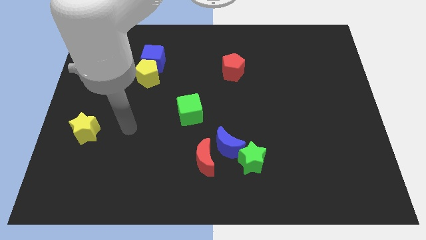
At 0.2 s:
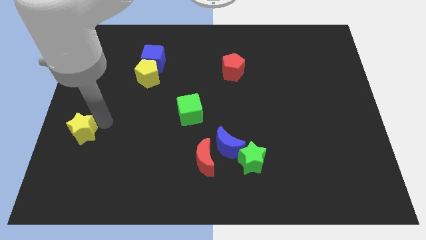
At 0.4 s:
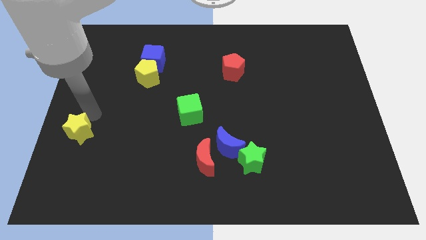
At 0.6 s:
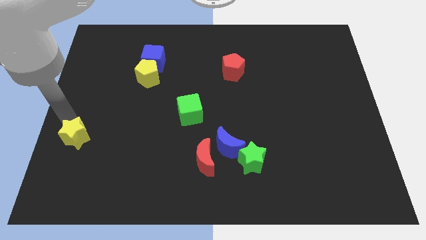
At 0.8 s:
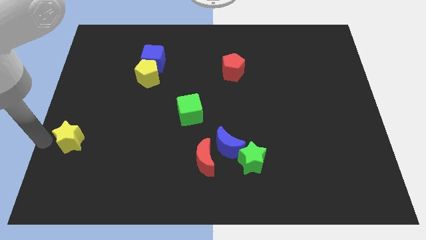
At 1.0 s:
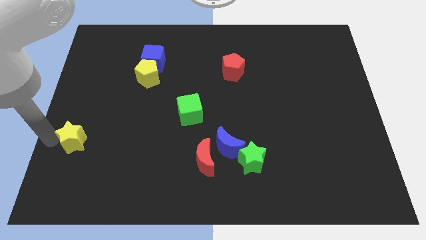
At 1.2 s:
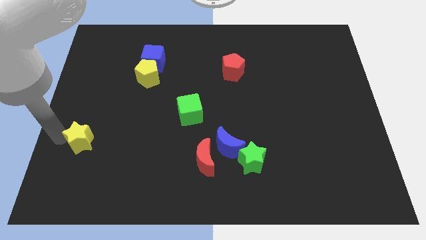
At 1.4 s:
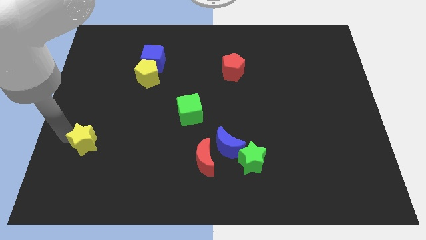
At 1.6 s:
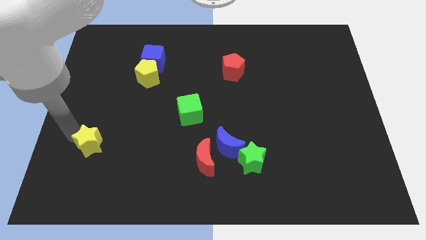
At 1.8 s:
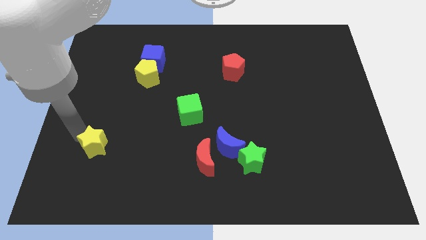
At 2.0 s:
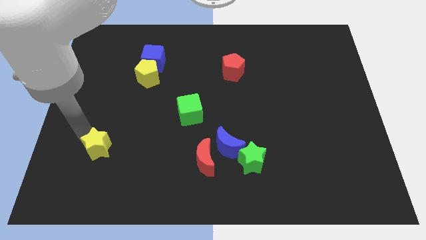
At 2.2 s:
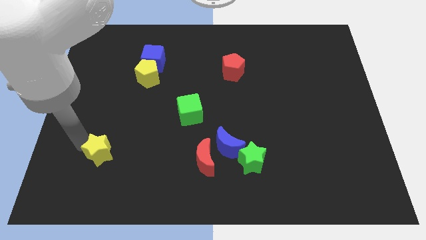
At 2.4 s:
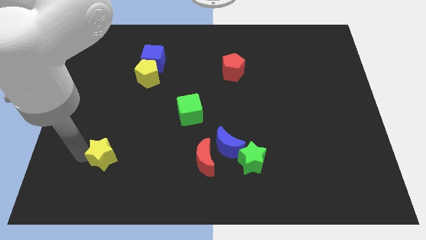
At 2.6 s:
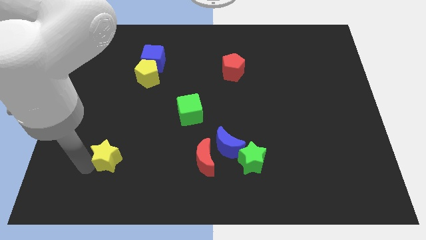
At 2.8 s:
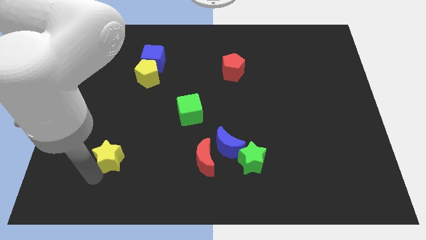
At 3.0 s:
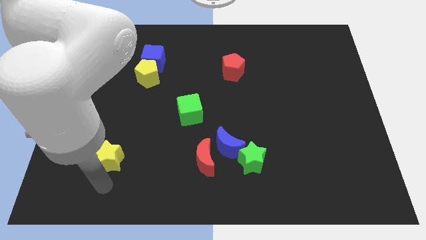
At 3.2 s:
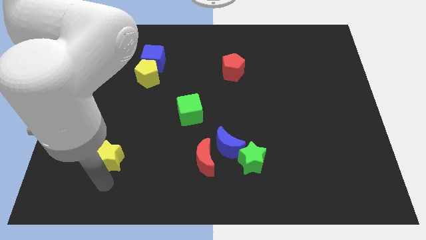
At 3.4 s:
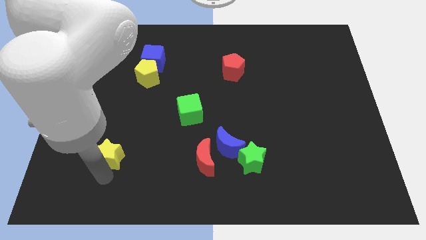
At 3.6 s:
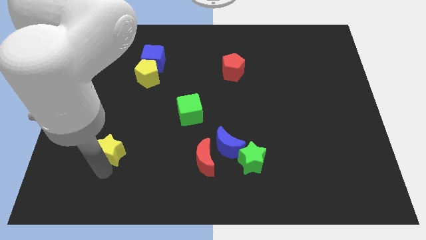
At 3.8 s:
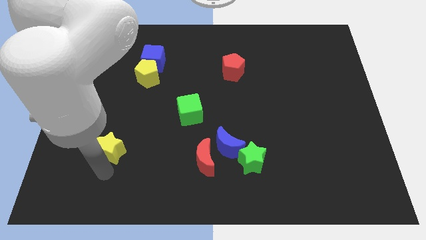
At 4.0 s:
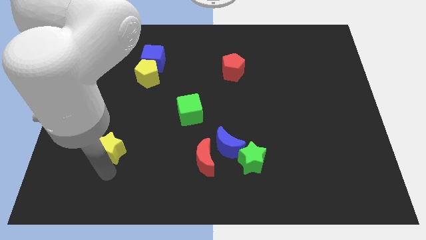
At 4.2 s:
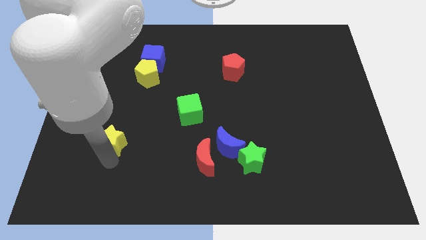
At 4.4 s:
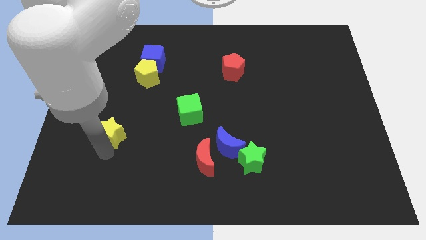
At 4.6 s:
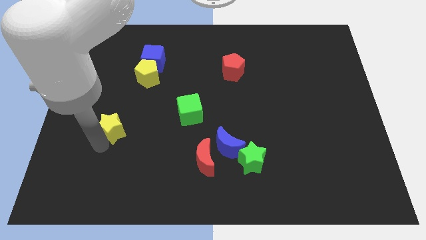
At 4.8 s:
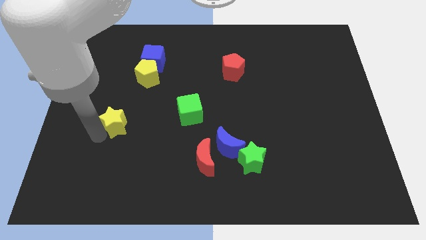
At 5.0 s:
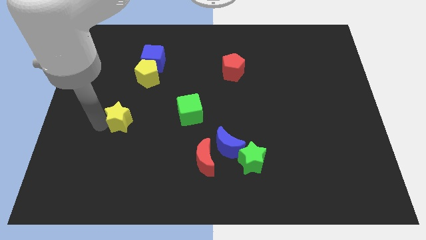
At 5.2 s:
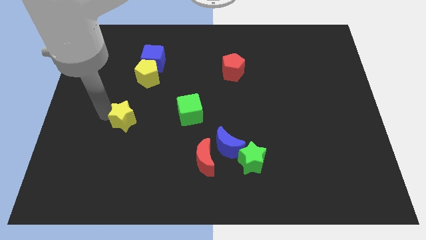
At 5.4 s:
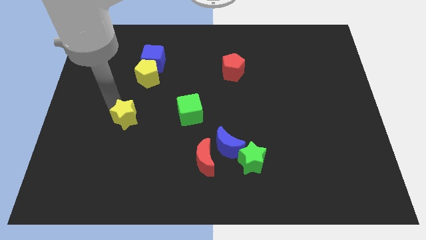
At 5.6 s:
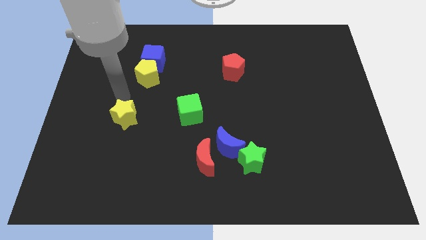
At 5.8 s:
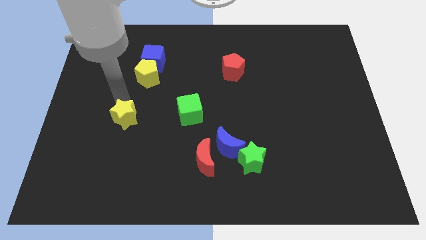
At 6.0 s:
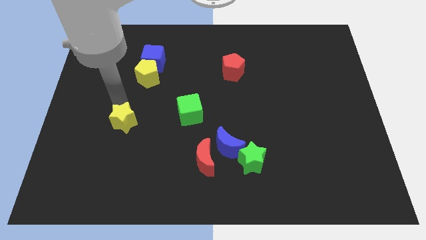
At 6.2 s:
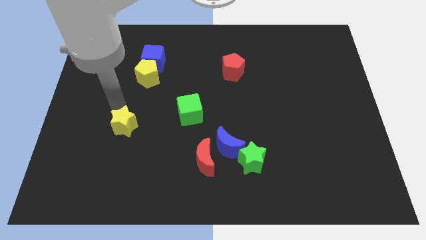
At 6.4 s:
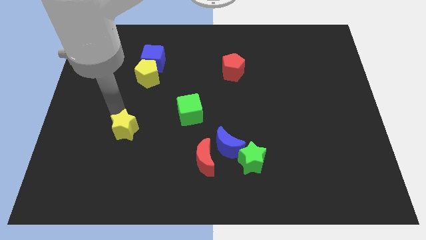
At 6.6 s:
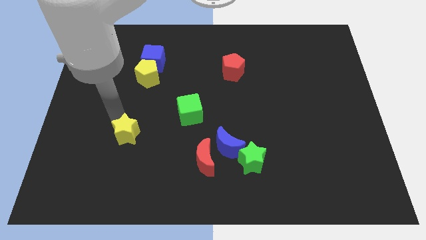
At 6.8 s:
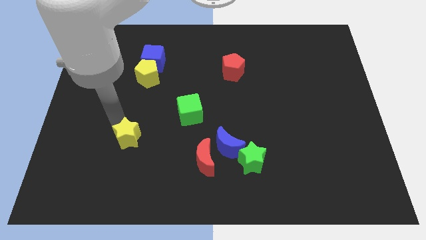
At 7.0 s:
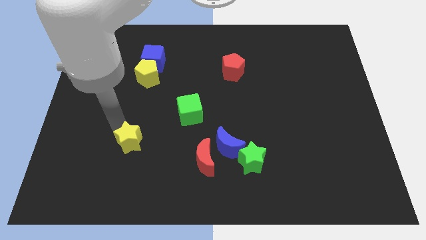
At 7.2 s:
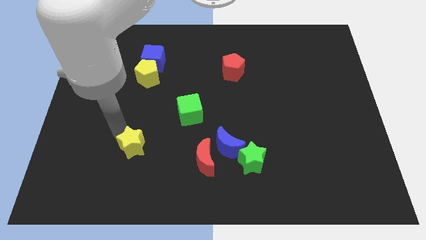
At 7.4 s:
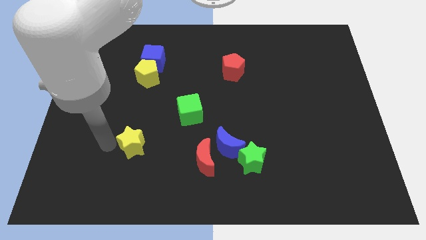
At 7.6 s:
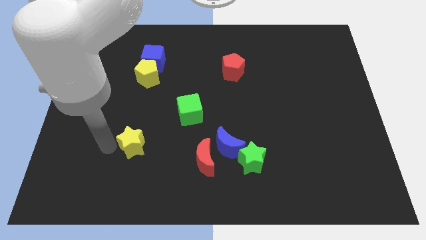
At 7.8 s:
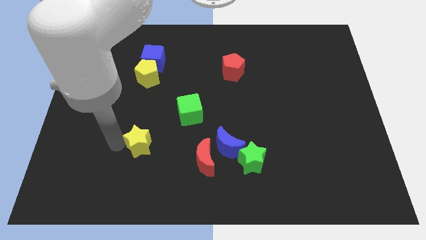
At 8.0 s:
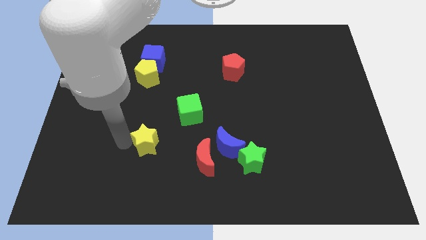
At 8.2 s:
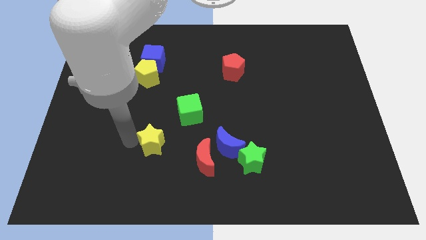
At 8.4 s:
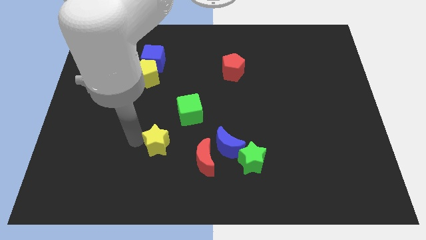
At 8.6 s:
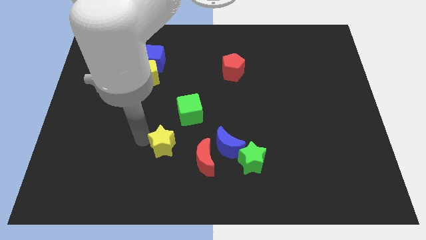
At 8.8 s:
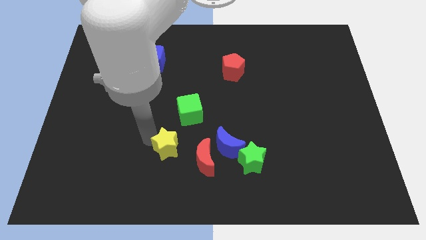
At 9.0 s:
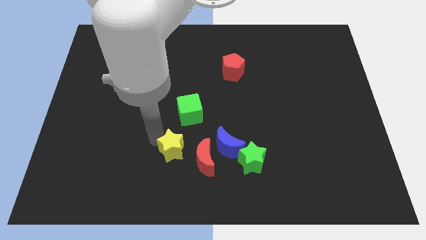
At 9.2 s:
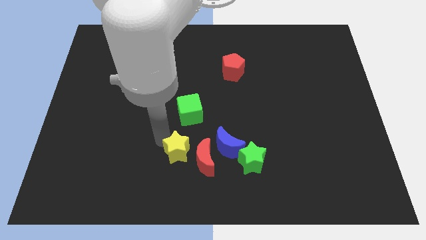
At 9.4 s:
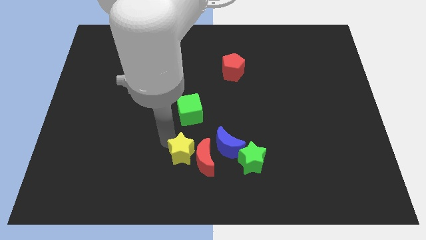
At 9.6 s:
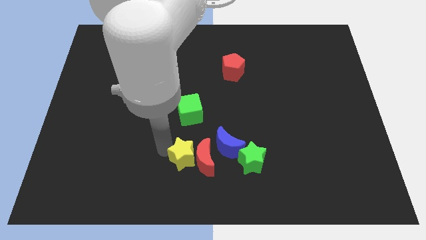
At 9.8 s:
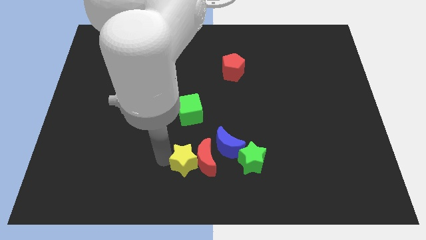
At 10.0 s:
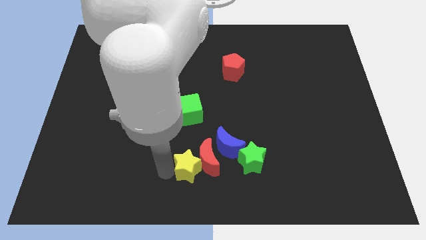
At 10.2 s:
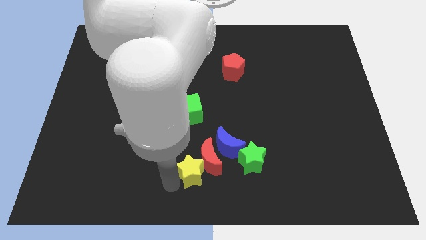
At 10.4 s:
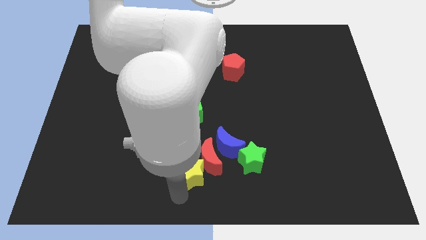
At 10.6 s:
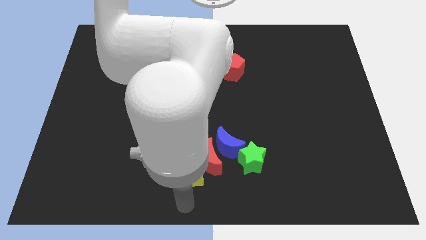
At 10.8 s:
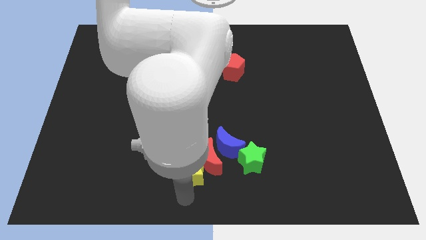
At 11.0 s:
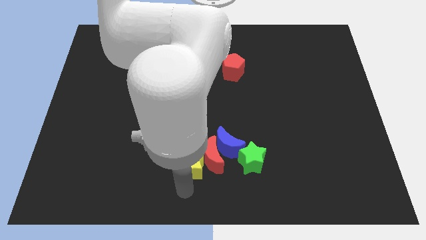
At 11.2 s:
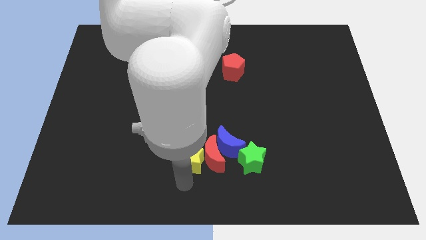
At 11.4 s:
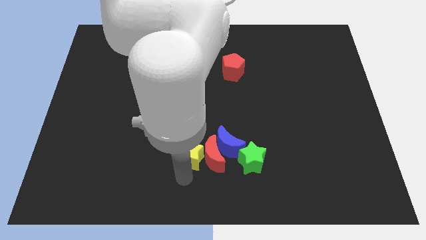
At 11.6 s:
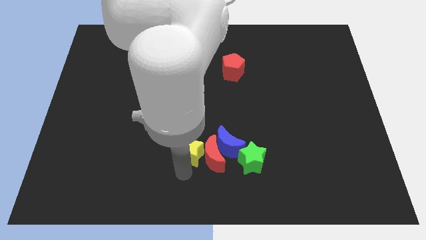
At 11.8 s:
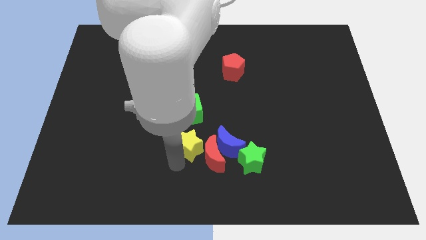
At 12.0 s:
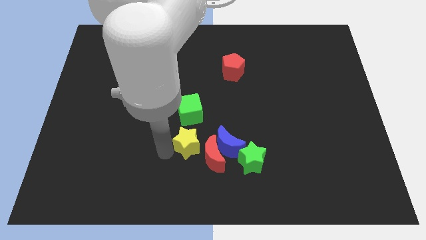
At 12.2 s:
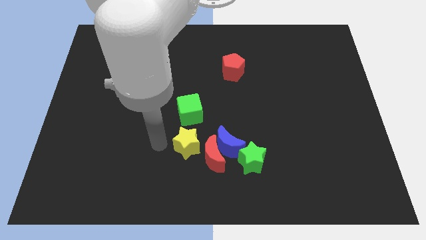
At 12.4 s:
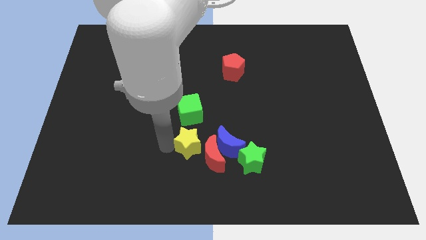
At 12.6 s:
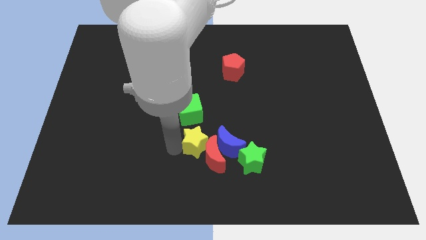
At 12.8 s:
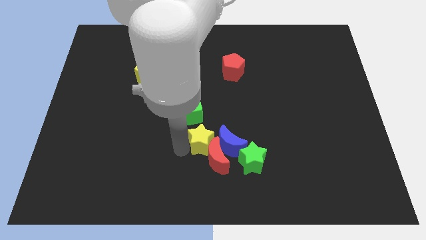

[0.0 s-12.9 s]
put the yellow star close to the blue moon

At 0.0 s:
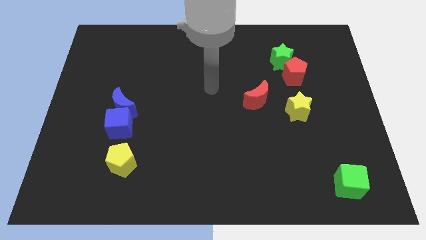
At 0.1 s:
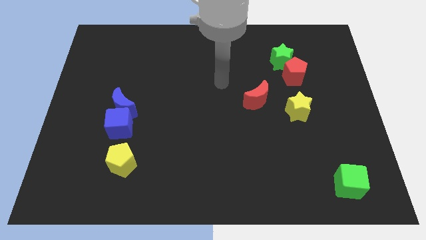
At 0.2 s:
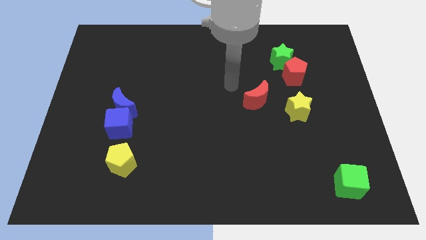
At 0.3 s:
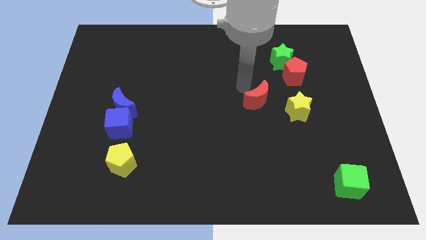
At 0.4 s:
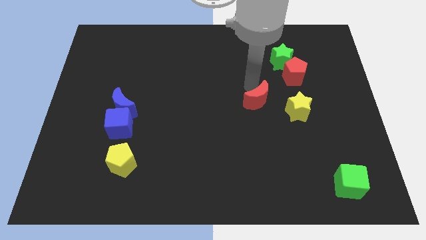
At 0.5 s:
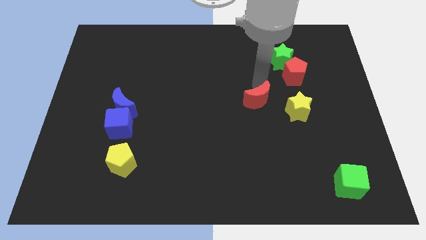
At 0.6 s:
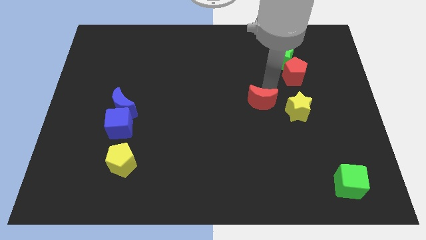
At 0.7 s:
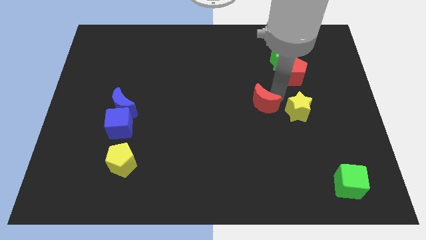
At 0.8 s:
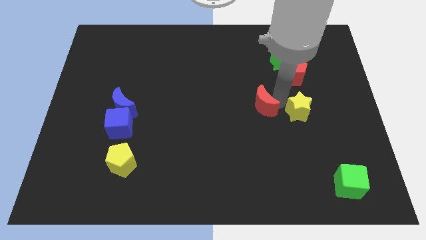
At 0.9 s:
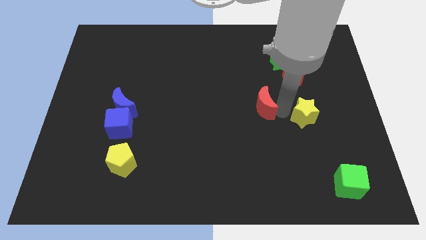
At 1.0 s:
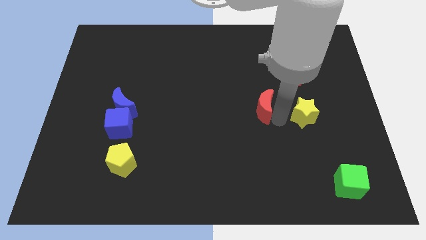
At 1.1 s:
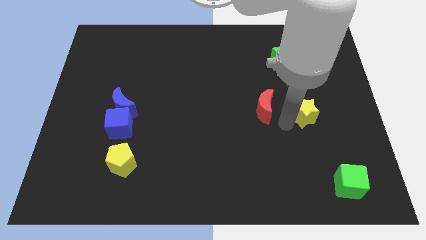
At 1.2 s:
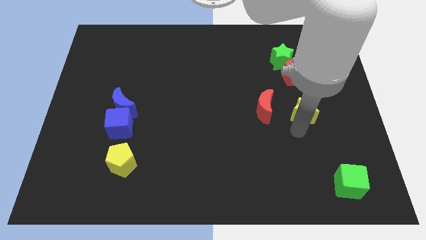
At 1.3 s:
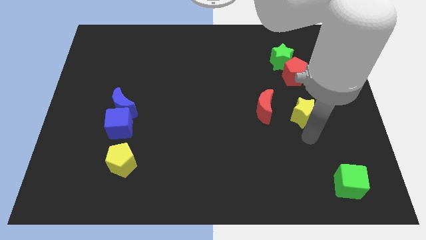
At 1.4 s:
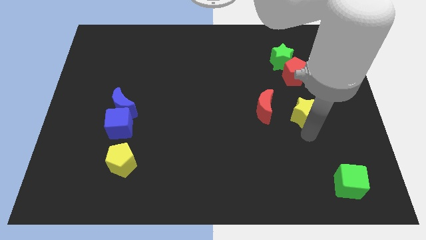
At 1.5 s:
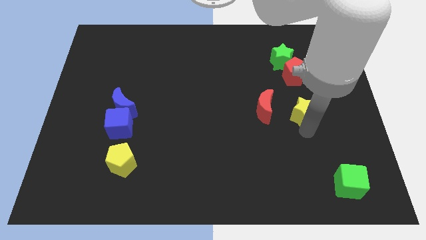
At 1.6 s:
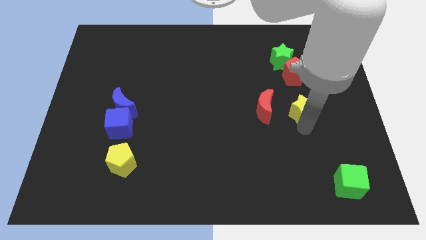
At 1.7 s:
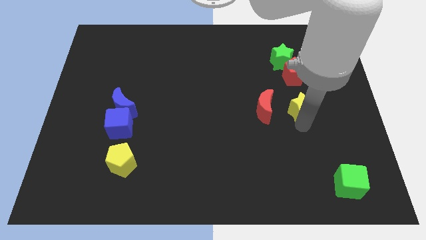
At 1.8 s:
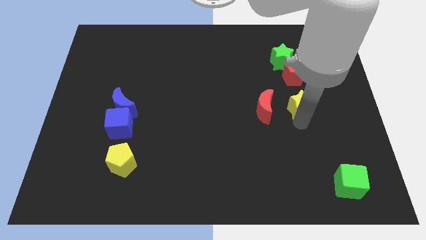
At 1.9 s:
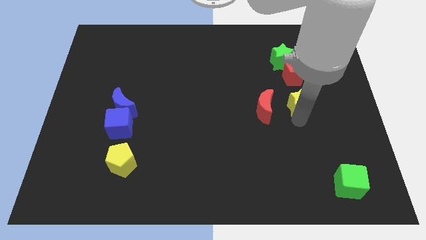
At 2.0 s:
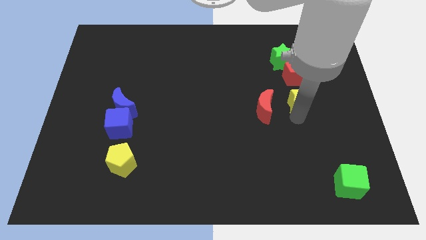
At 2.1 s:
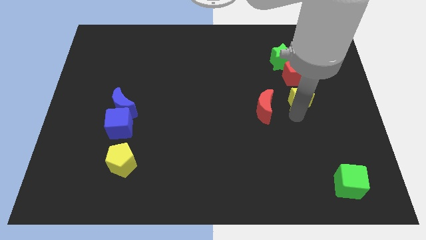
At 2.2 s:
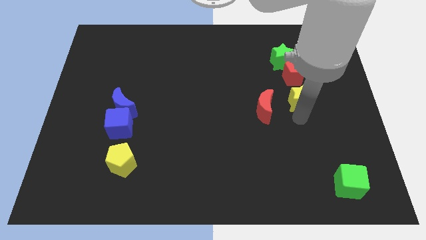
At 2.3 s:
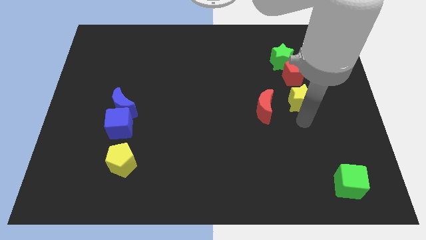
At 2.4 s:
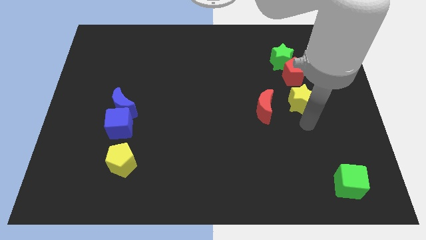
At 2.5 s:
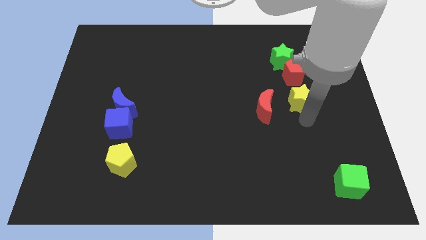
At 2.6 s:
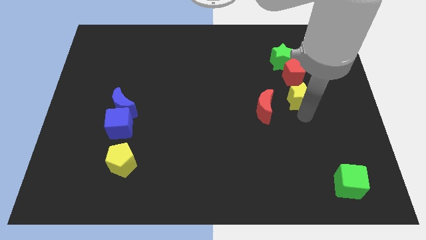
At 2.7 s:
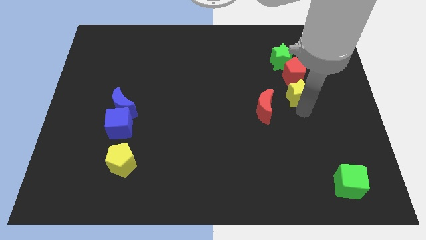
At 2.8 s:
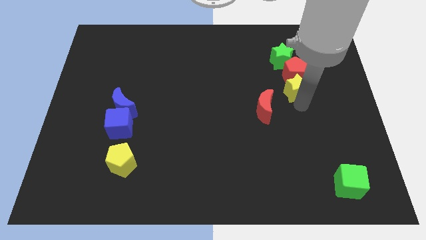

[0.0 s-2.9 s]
put the yellow star close to the red pentagon
